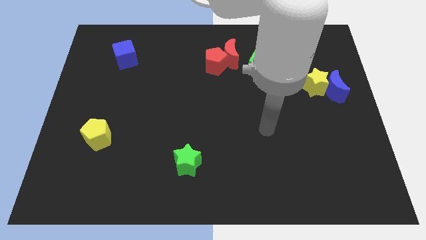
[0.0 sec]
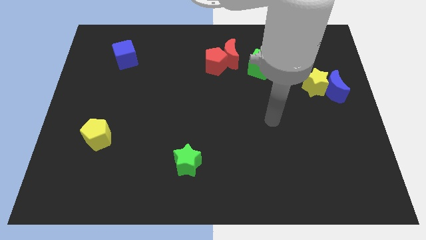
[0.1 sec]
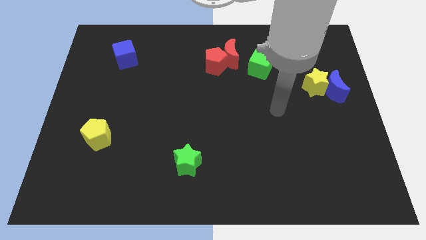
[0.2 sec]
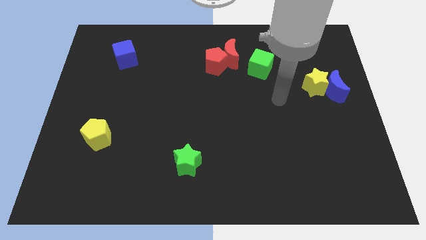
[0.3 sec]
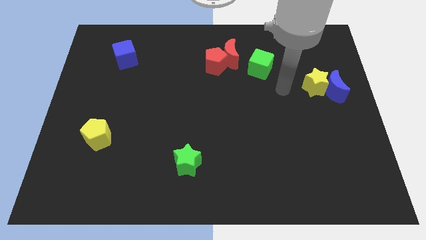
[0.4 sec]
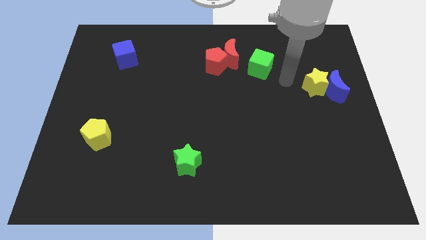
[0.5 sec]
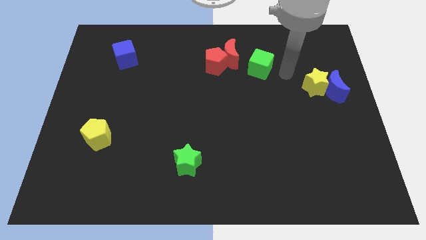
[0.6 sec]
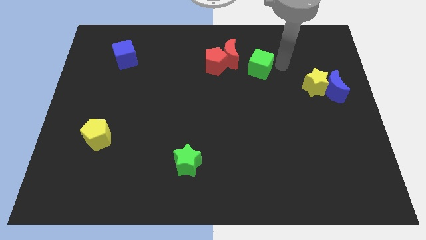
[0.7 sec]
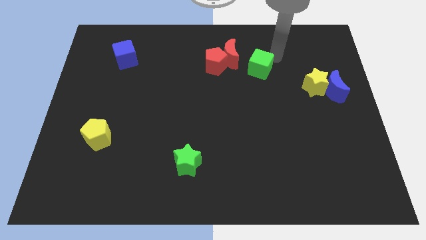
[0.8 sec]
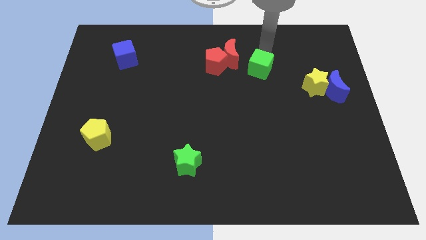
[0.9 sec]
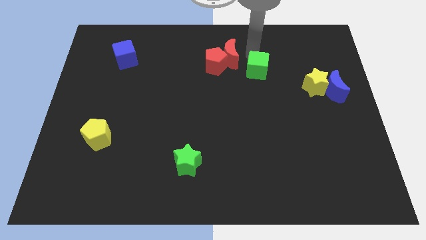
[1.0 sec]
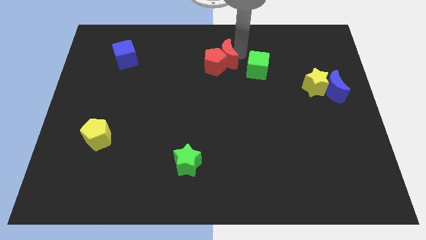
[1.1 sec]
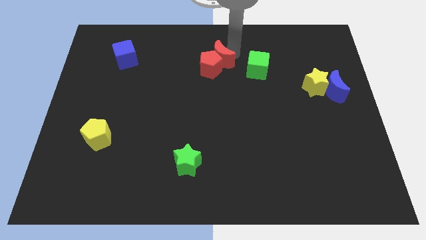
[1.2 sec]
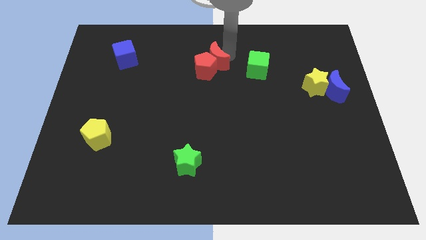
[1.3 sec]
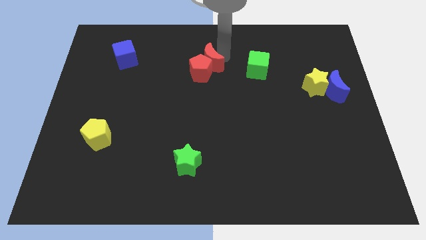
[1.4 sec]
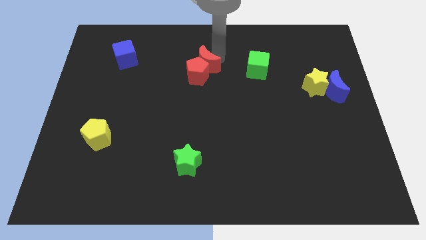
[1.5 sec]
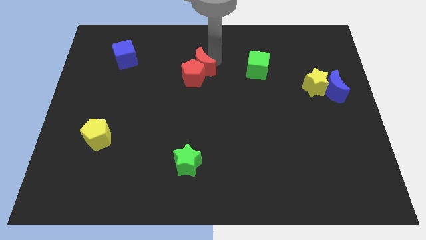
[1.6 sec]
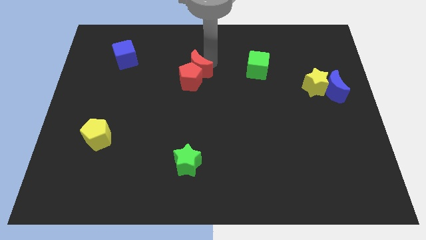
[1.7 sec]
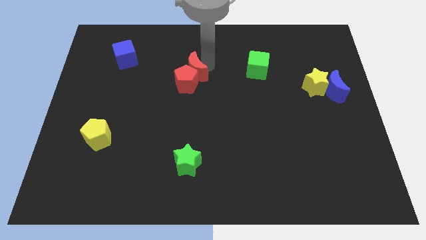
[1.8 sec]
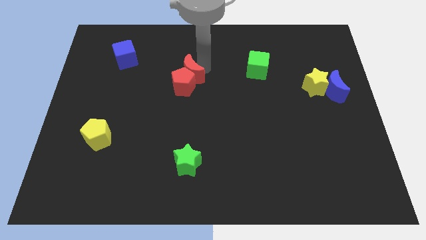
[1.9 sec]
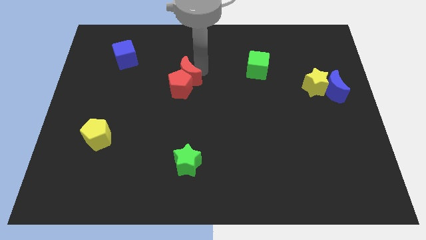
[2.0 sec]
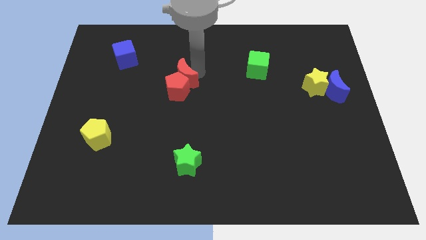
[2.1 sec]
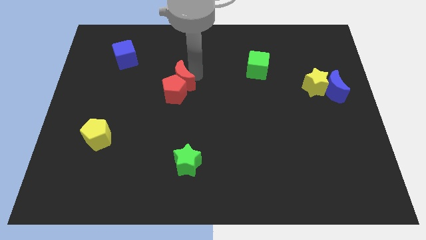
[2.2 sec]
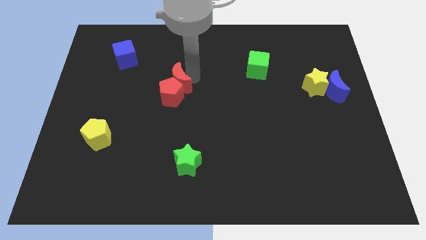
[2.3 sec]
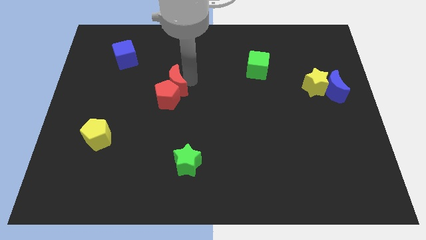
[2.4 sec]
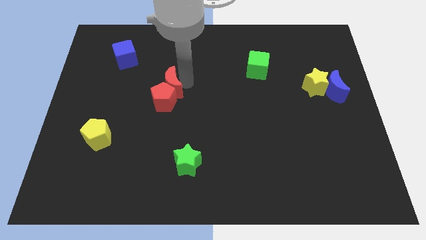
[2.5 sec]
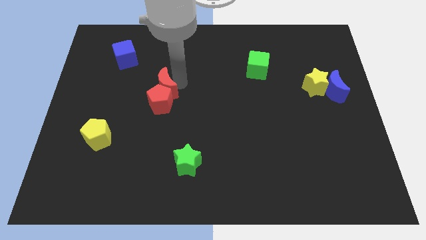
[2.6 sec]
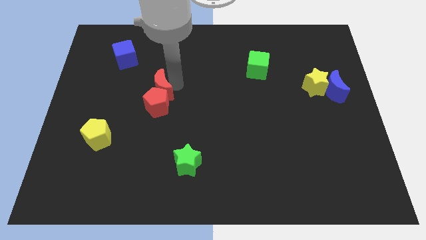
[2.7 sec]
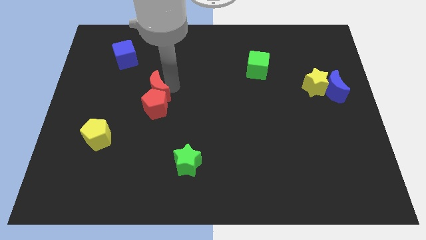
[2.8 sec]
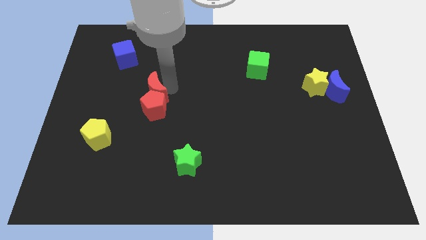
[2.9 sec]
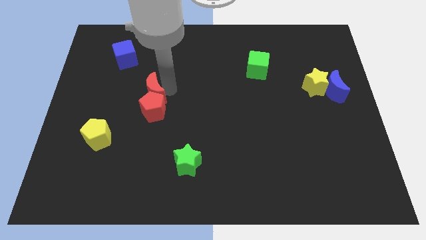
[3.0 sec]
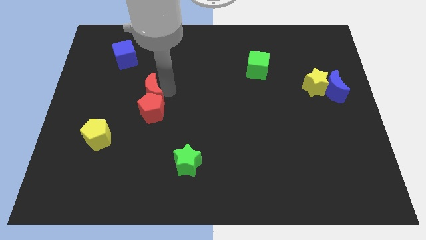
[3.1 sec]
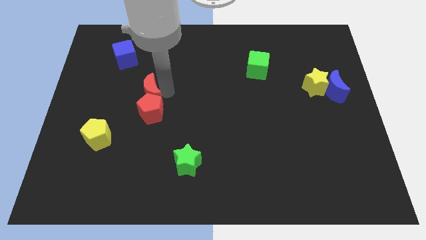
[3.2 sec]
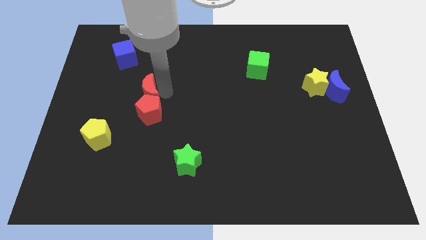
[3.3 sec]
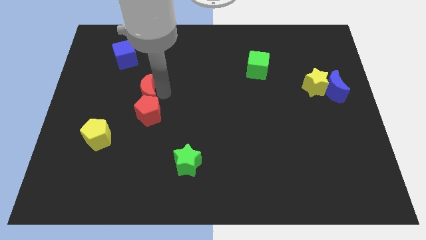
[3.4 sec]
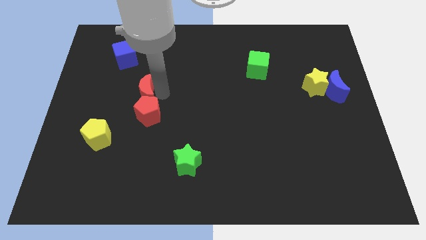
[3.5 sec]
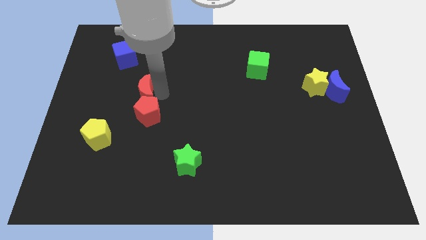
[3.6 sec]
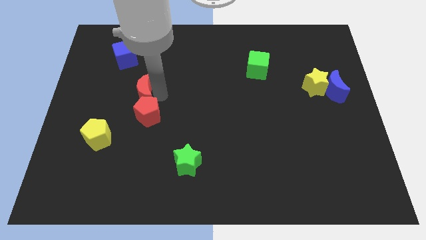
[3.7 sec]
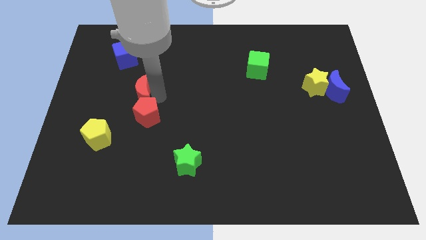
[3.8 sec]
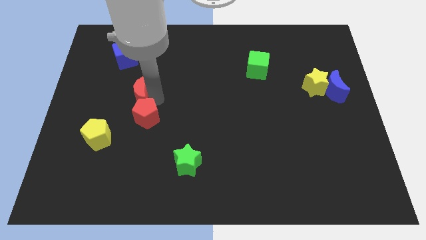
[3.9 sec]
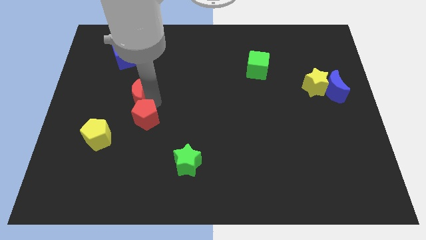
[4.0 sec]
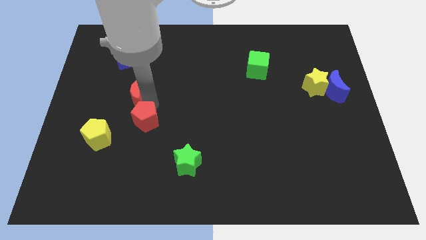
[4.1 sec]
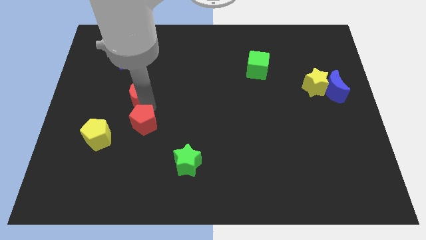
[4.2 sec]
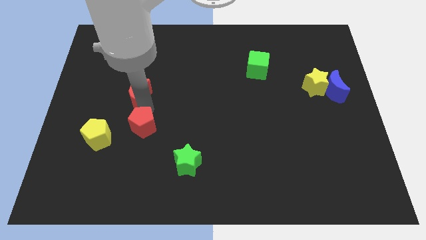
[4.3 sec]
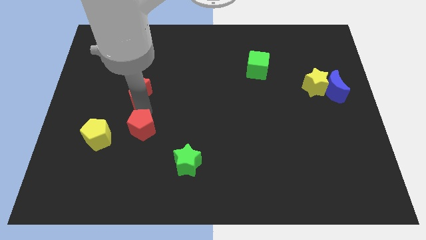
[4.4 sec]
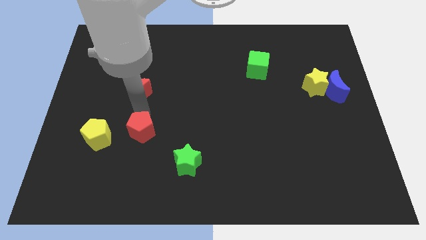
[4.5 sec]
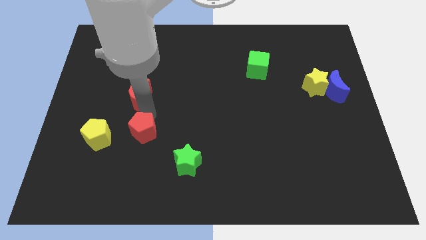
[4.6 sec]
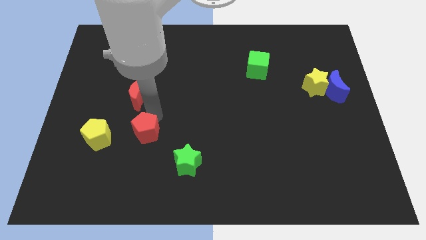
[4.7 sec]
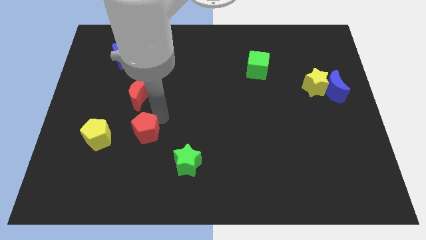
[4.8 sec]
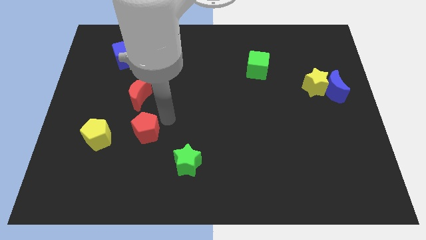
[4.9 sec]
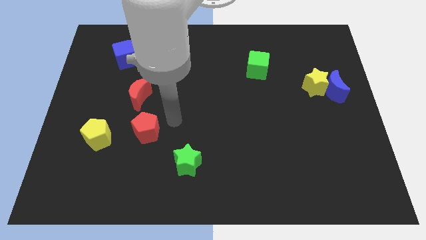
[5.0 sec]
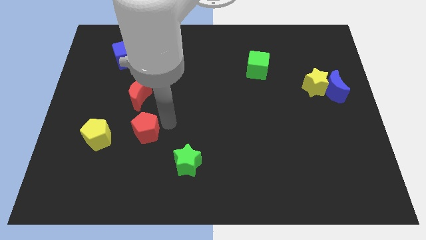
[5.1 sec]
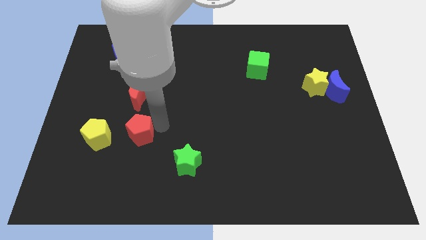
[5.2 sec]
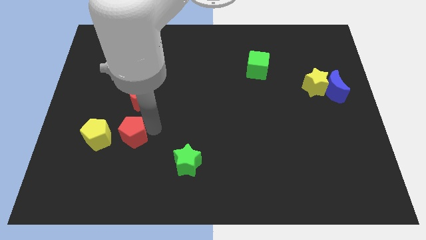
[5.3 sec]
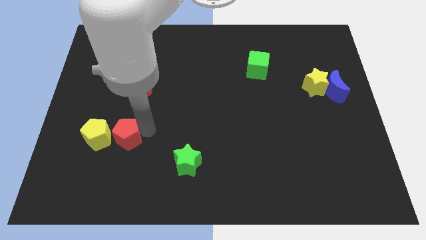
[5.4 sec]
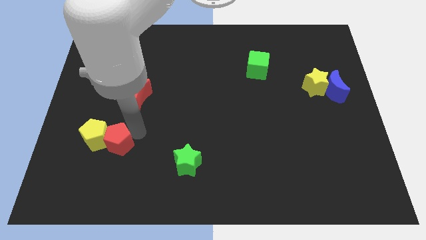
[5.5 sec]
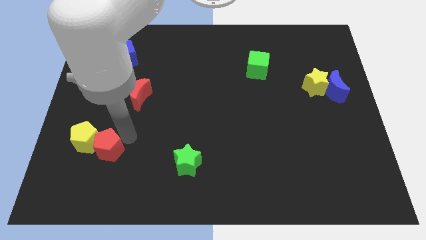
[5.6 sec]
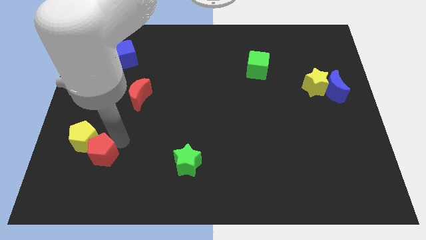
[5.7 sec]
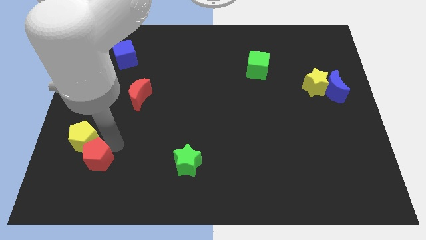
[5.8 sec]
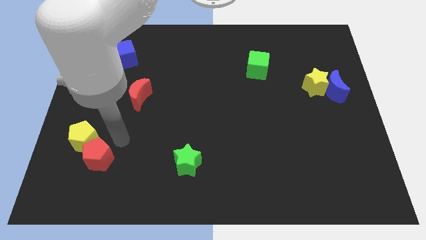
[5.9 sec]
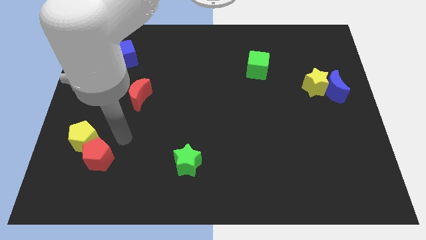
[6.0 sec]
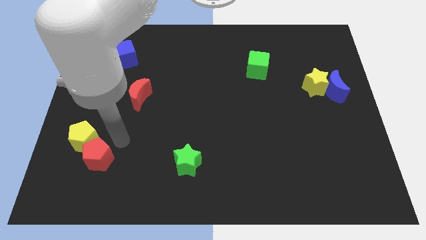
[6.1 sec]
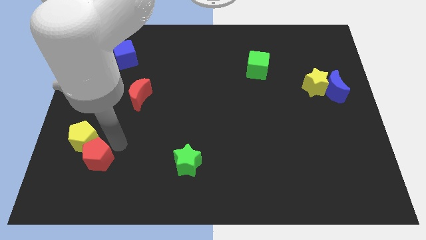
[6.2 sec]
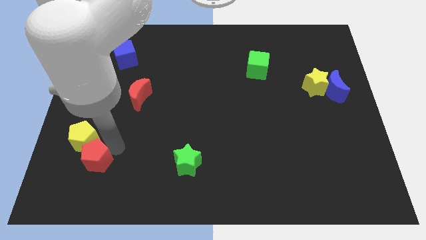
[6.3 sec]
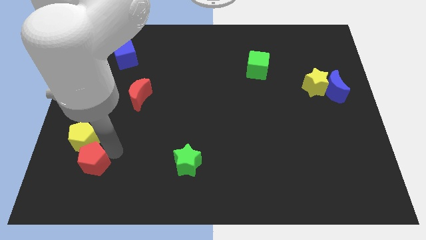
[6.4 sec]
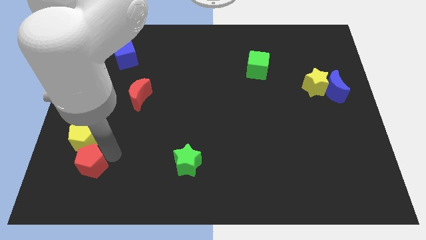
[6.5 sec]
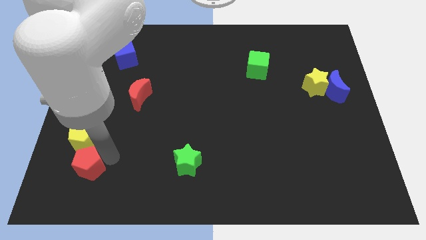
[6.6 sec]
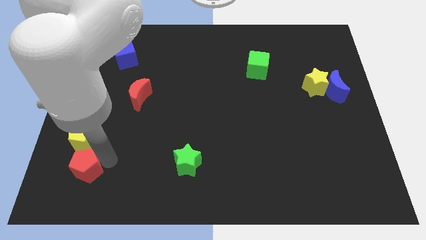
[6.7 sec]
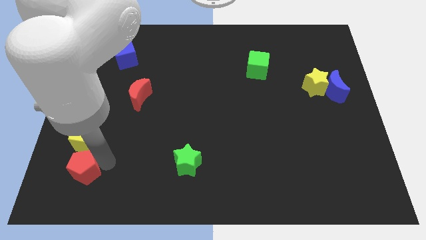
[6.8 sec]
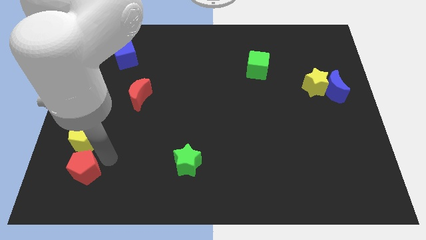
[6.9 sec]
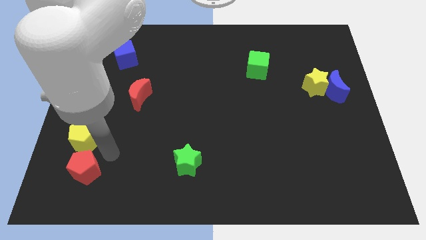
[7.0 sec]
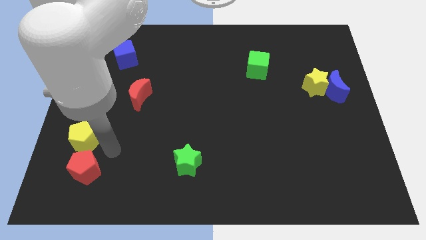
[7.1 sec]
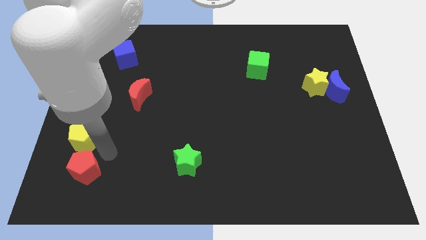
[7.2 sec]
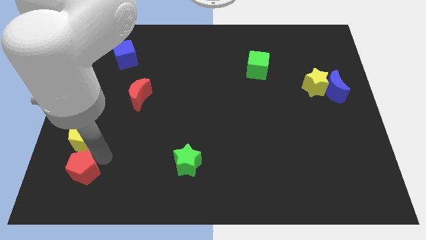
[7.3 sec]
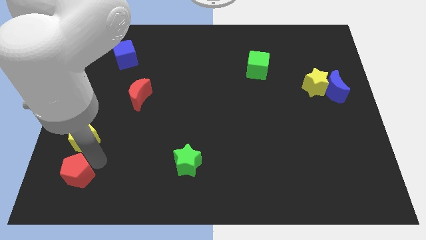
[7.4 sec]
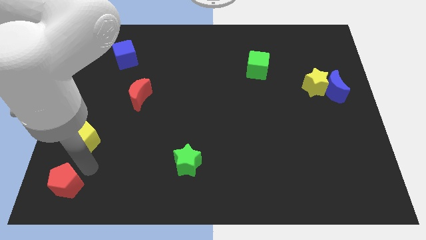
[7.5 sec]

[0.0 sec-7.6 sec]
put the red pentagon to the bottom left
